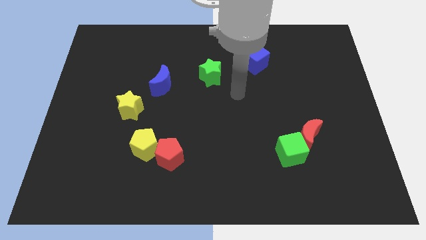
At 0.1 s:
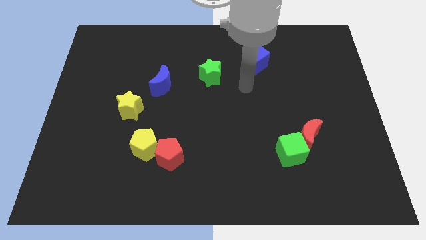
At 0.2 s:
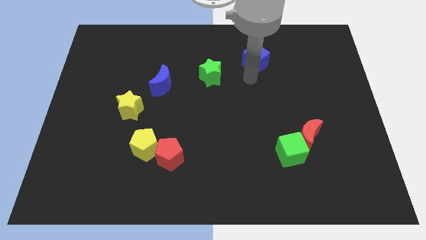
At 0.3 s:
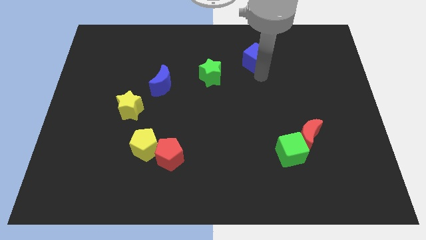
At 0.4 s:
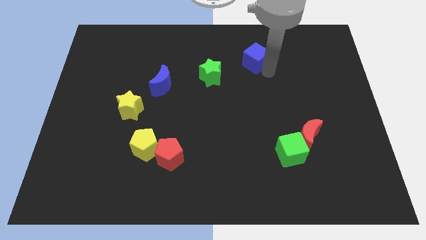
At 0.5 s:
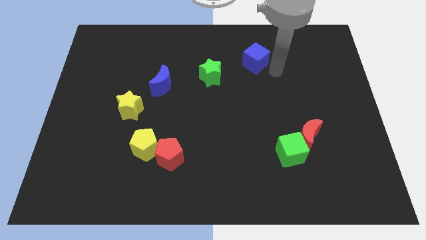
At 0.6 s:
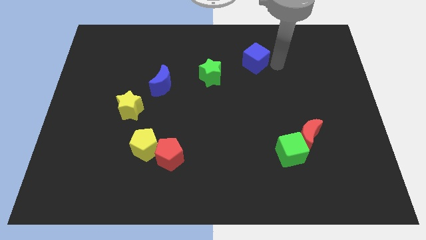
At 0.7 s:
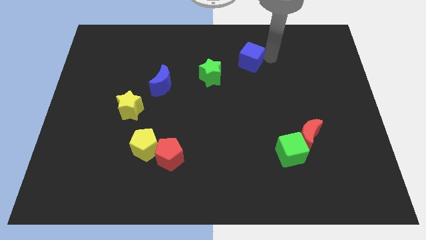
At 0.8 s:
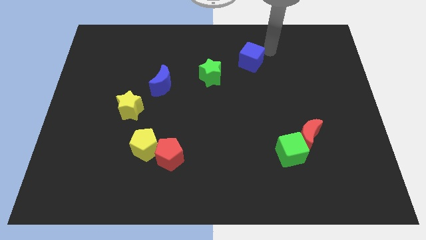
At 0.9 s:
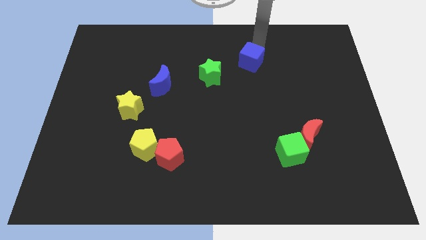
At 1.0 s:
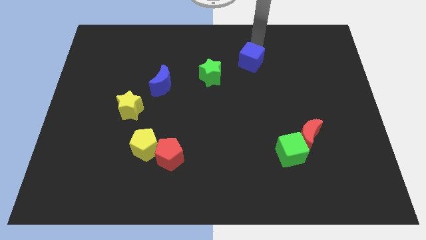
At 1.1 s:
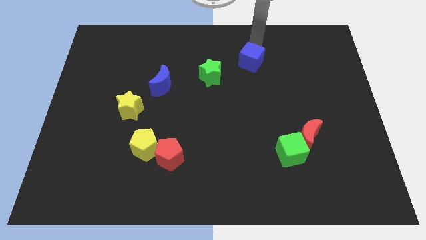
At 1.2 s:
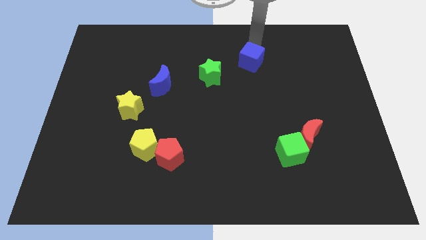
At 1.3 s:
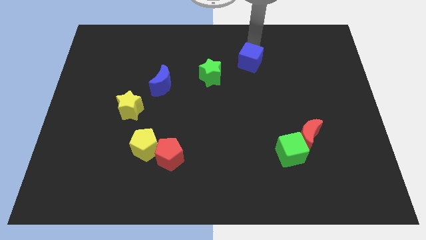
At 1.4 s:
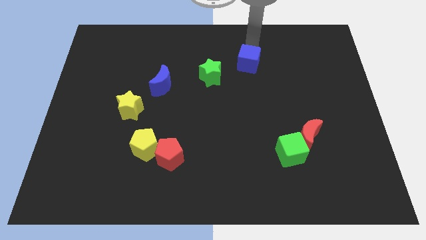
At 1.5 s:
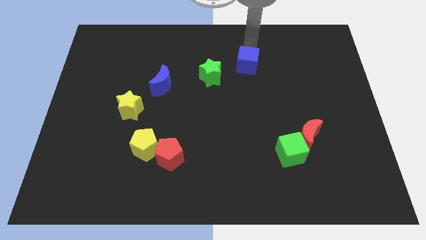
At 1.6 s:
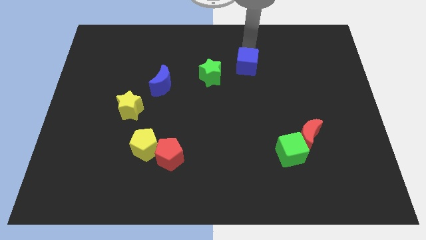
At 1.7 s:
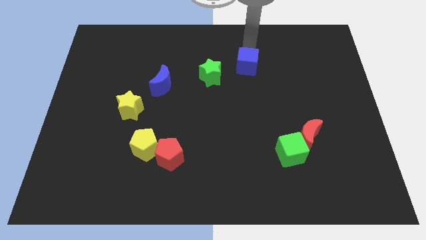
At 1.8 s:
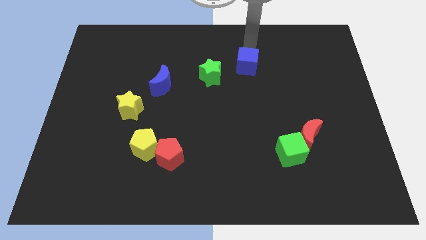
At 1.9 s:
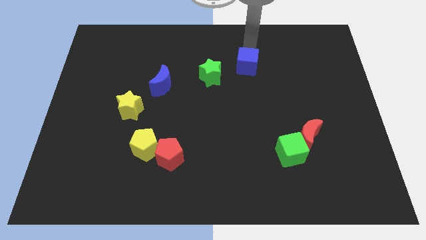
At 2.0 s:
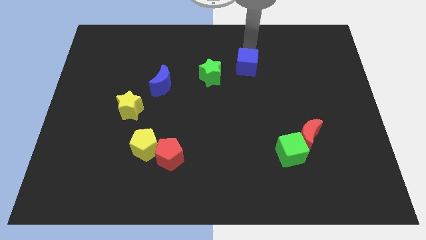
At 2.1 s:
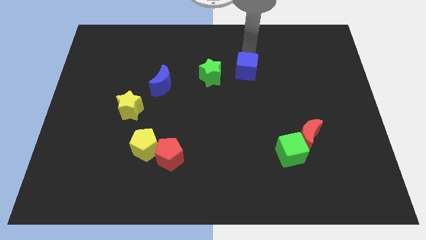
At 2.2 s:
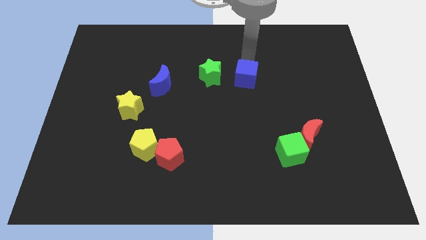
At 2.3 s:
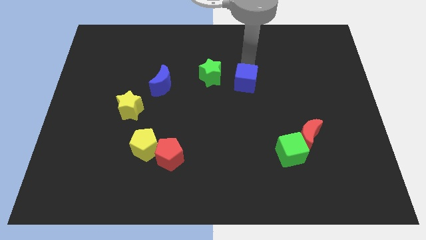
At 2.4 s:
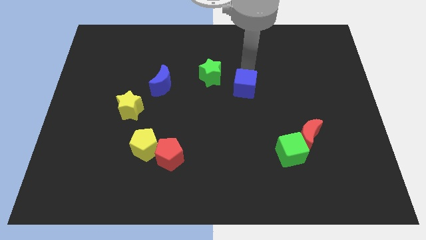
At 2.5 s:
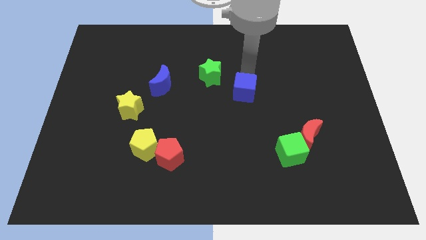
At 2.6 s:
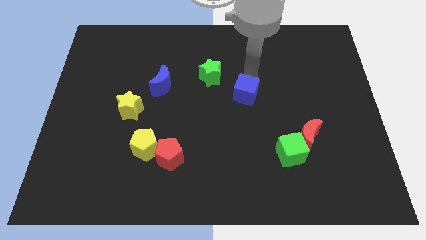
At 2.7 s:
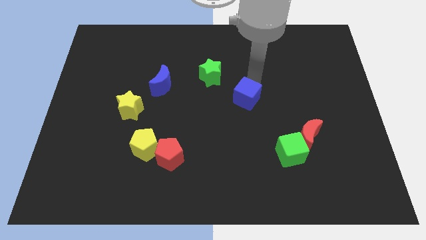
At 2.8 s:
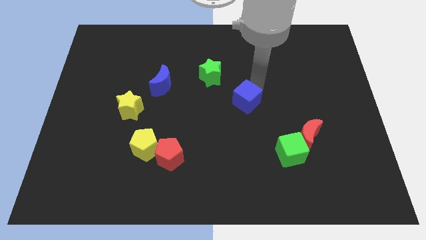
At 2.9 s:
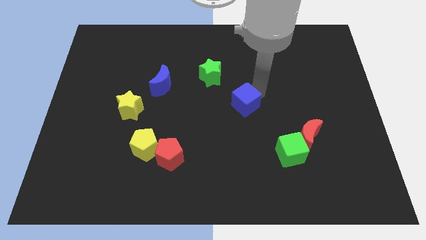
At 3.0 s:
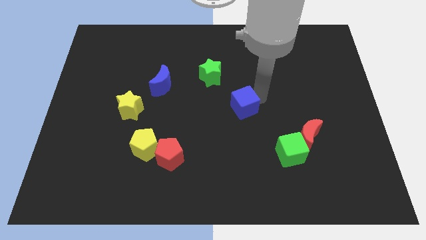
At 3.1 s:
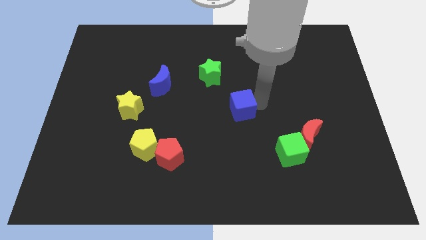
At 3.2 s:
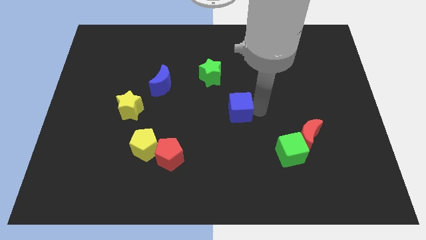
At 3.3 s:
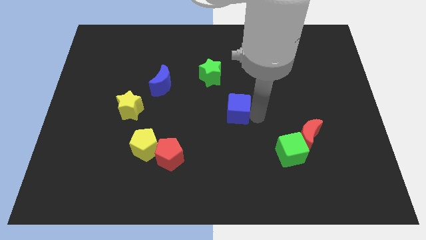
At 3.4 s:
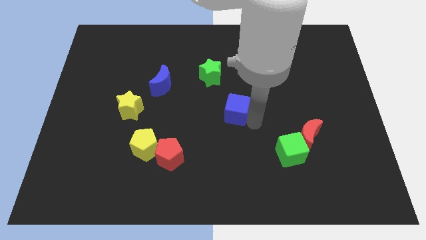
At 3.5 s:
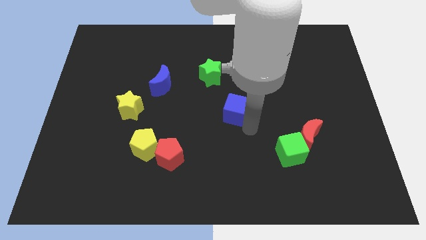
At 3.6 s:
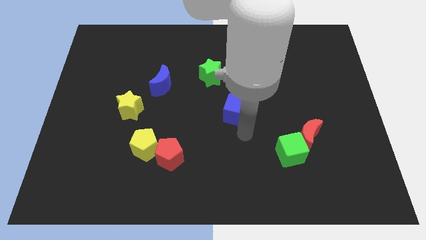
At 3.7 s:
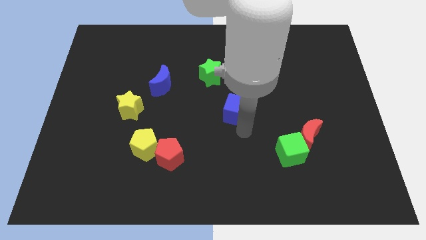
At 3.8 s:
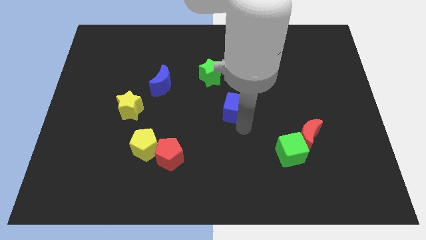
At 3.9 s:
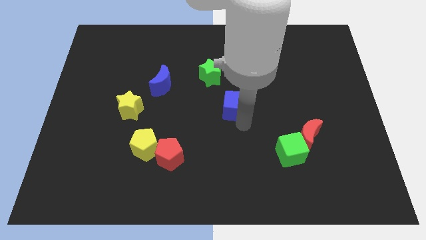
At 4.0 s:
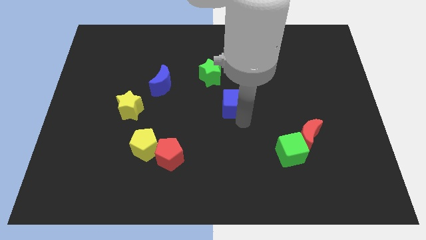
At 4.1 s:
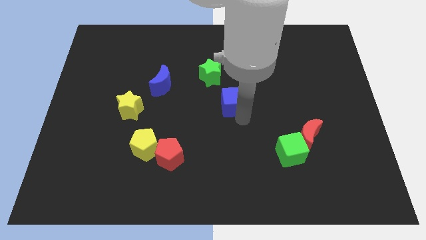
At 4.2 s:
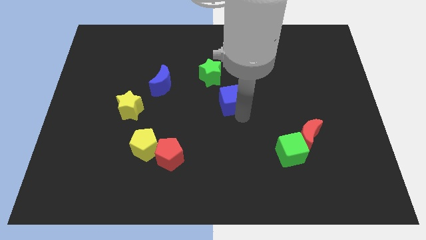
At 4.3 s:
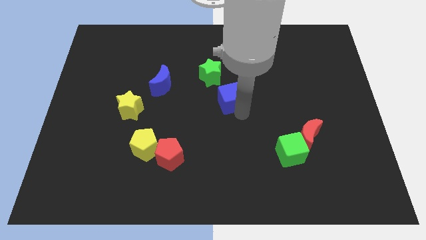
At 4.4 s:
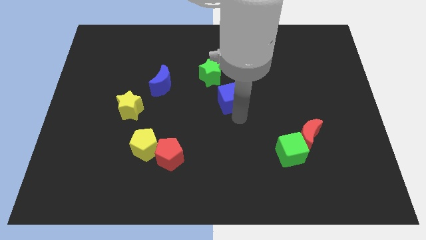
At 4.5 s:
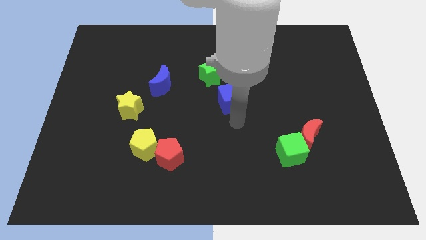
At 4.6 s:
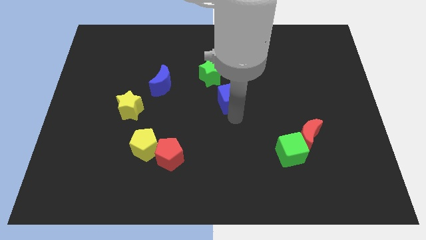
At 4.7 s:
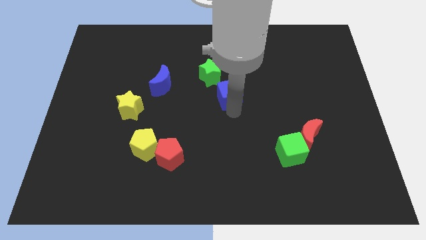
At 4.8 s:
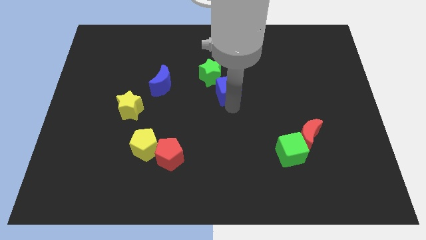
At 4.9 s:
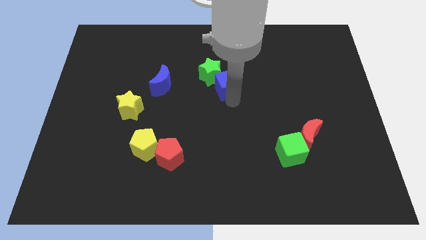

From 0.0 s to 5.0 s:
slide the blue cube right of the blue moon

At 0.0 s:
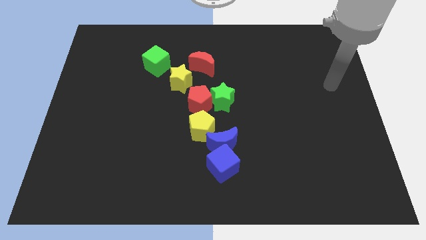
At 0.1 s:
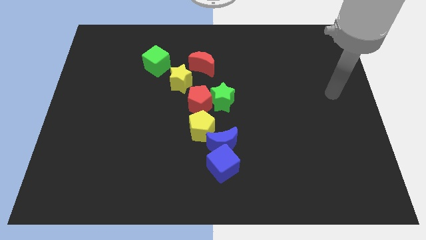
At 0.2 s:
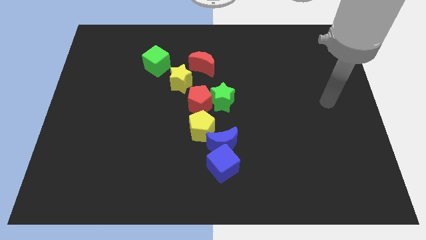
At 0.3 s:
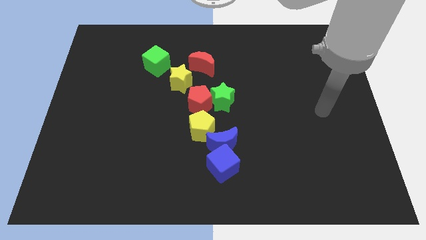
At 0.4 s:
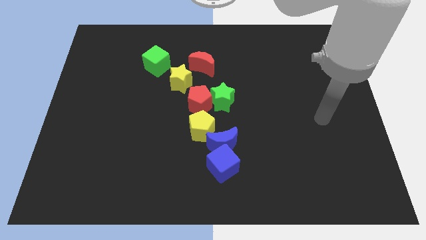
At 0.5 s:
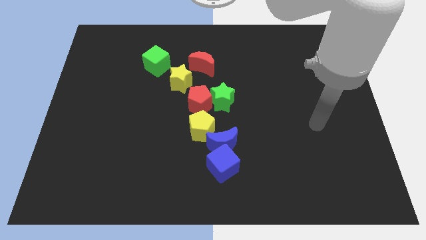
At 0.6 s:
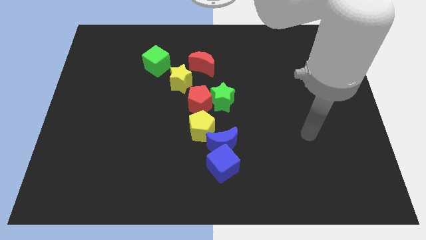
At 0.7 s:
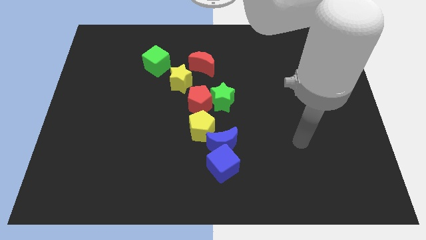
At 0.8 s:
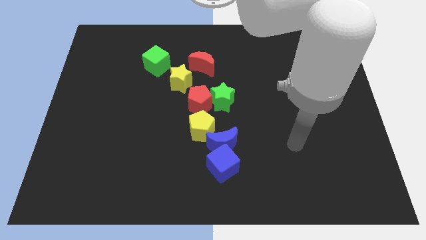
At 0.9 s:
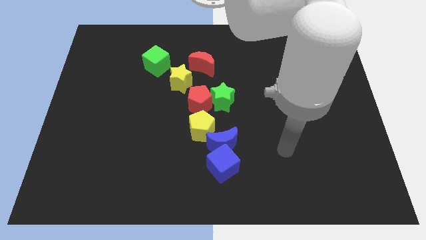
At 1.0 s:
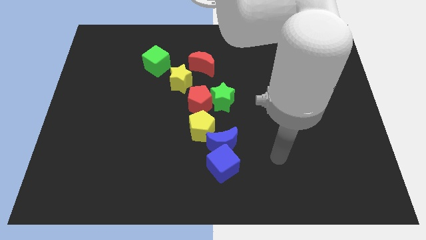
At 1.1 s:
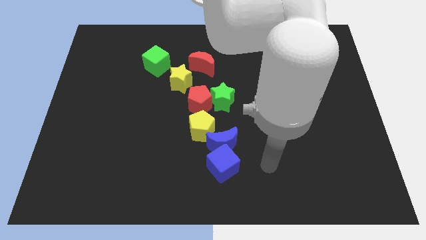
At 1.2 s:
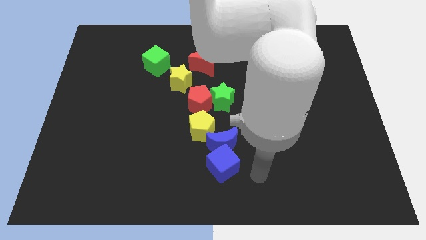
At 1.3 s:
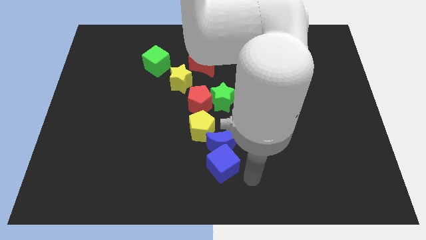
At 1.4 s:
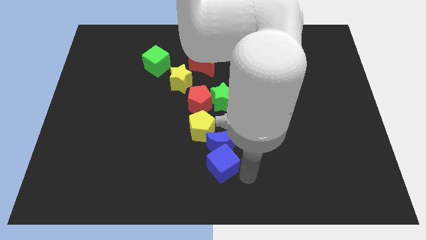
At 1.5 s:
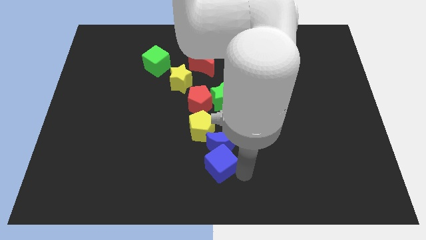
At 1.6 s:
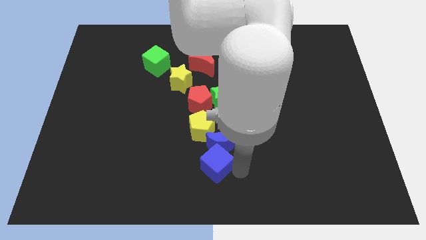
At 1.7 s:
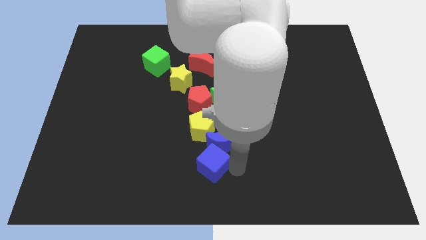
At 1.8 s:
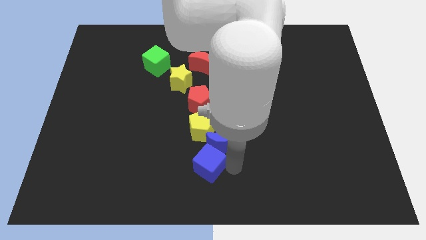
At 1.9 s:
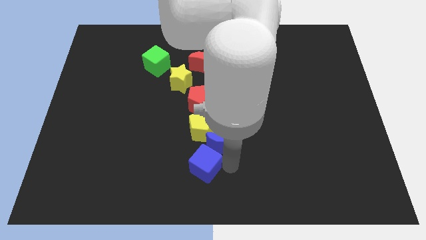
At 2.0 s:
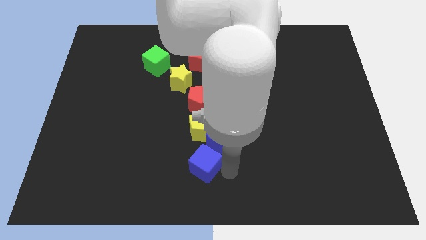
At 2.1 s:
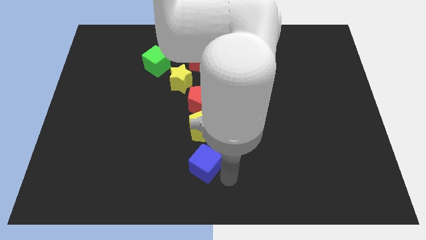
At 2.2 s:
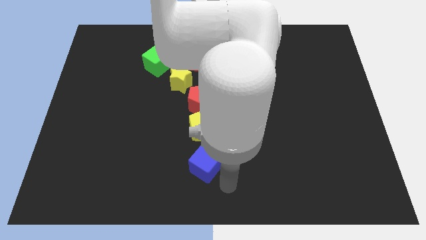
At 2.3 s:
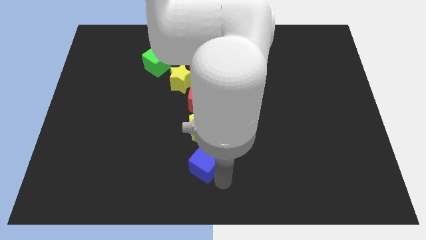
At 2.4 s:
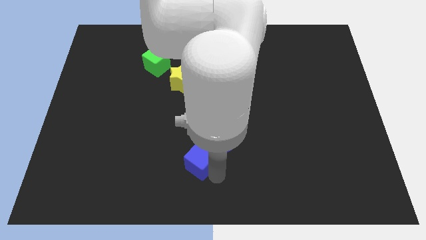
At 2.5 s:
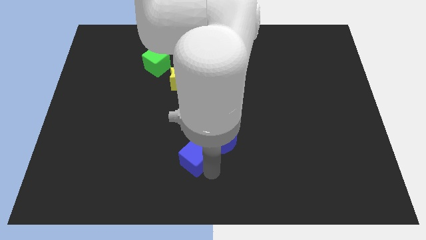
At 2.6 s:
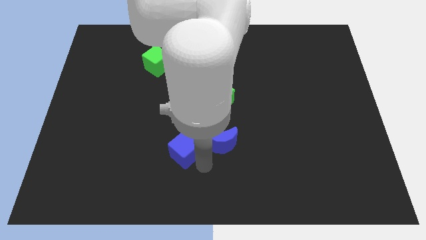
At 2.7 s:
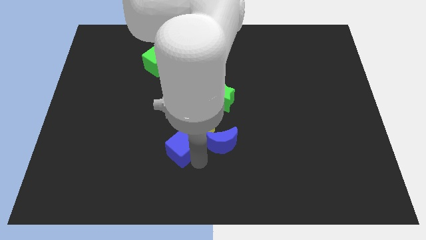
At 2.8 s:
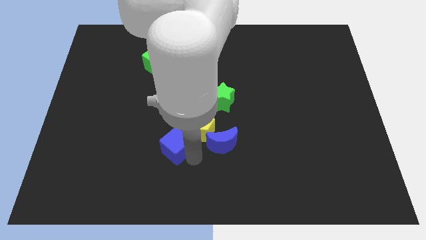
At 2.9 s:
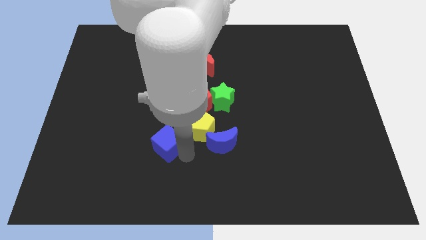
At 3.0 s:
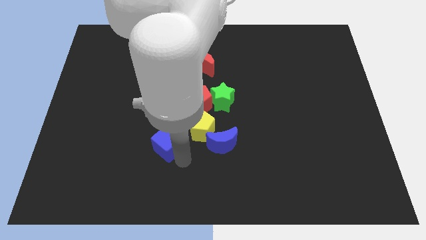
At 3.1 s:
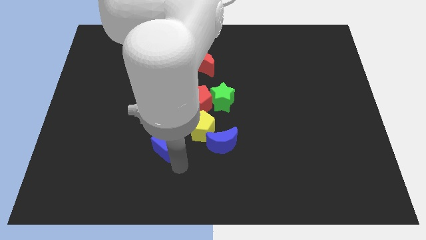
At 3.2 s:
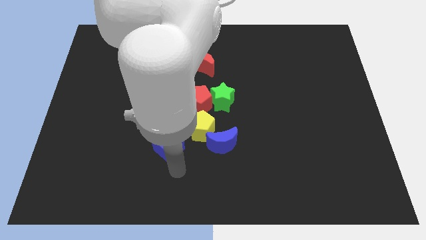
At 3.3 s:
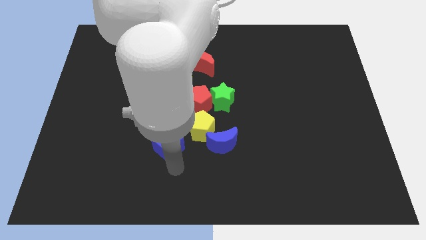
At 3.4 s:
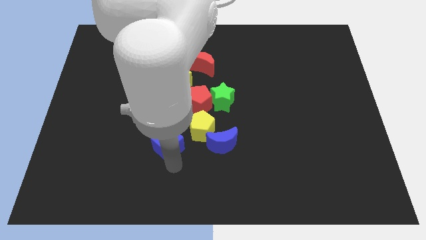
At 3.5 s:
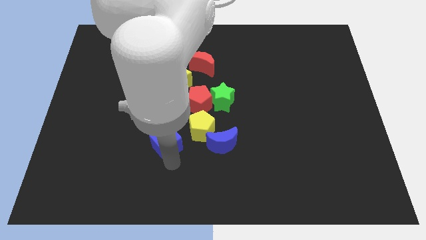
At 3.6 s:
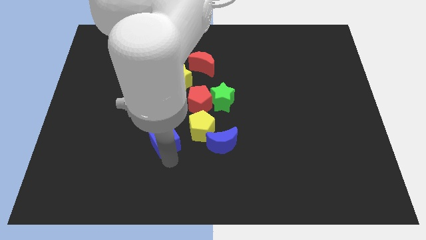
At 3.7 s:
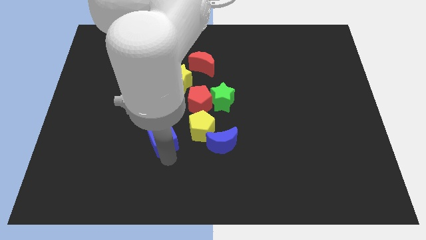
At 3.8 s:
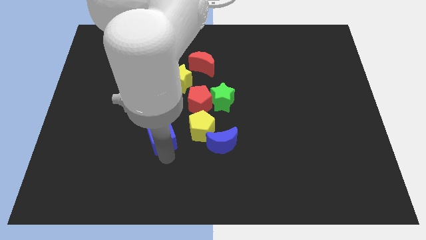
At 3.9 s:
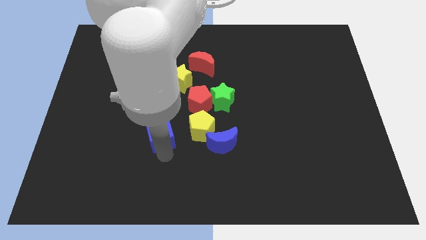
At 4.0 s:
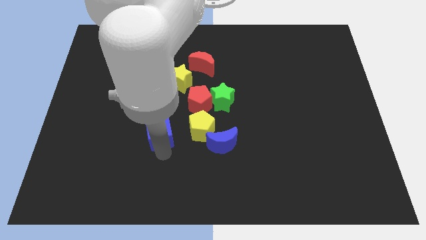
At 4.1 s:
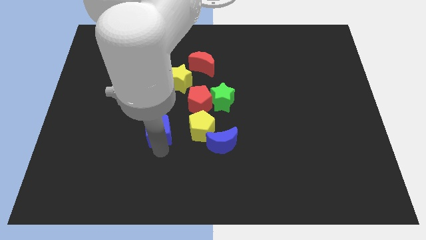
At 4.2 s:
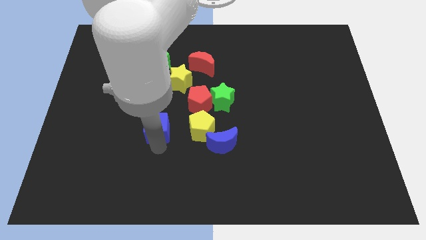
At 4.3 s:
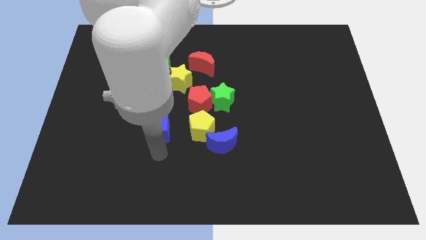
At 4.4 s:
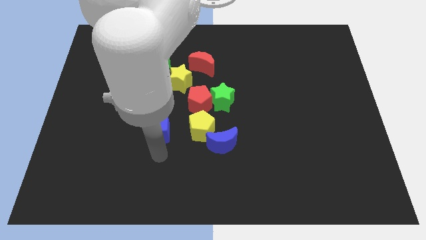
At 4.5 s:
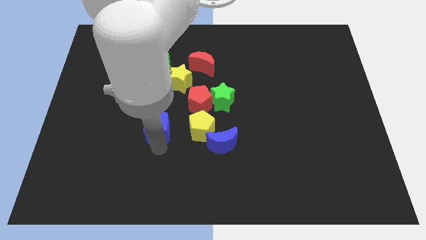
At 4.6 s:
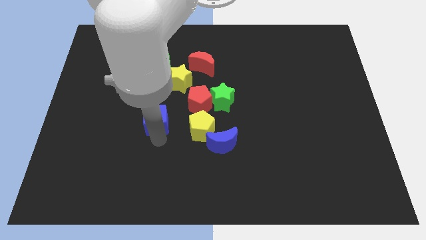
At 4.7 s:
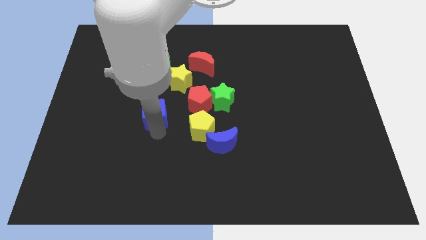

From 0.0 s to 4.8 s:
slide the blue cube to the left side of the red pentagon
